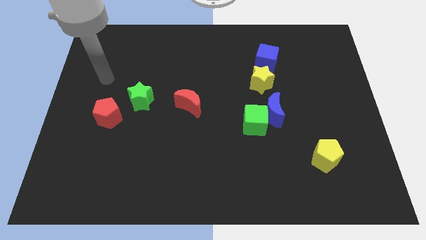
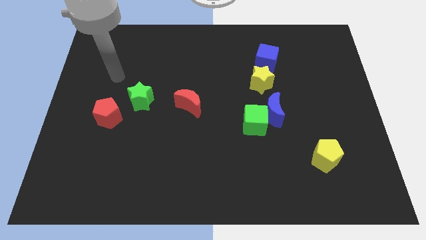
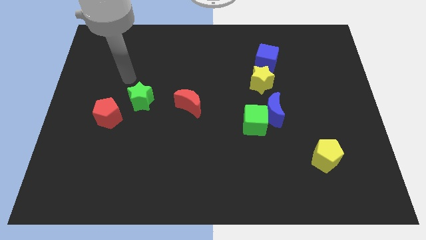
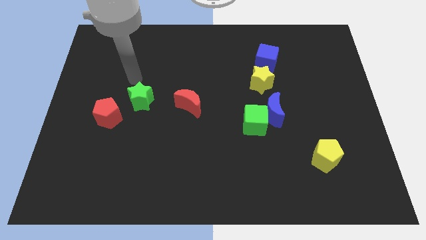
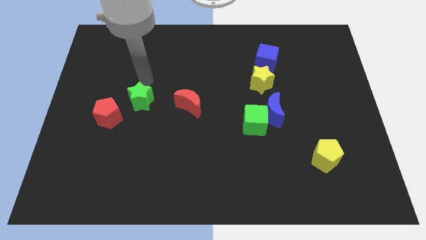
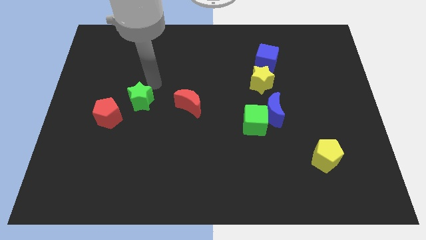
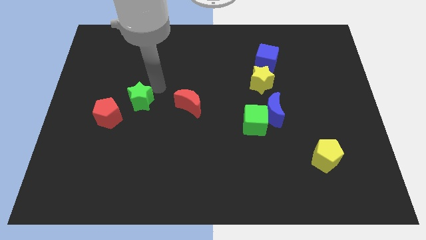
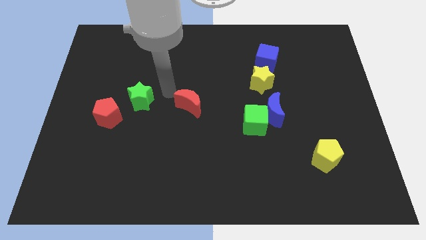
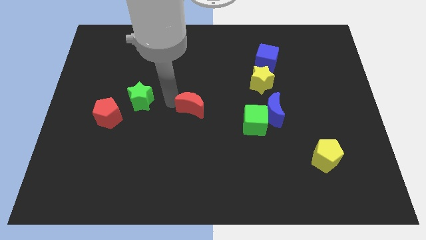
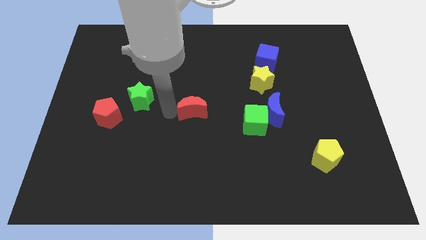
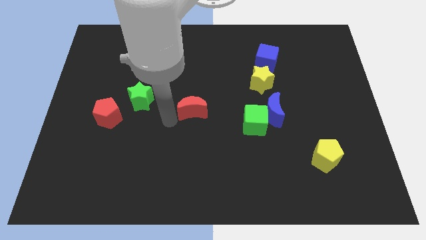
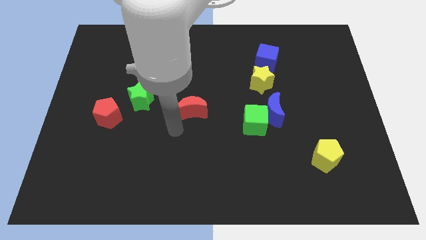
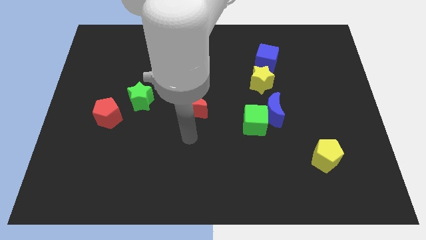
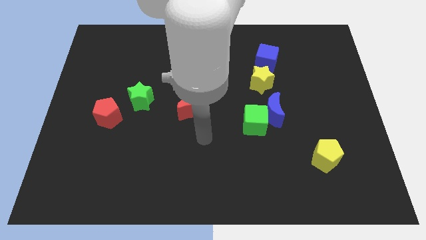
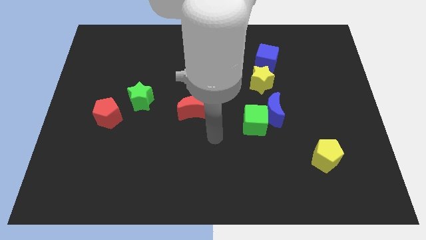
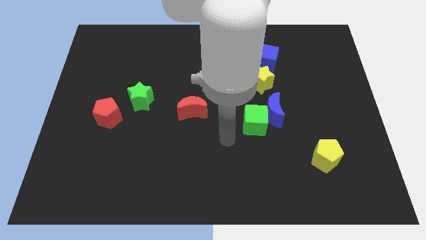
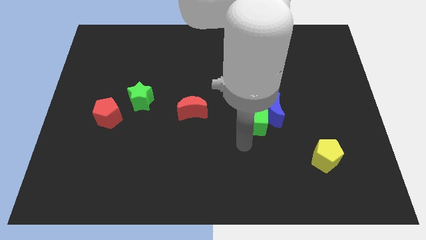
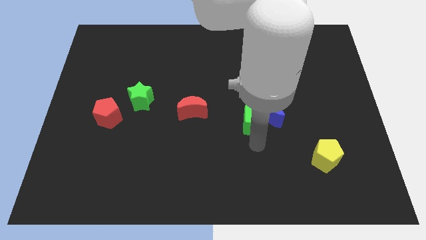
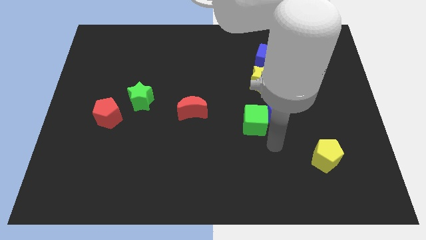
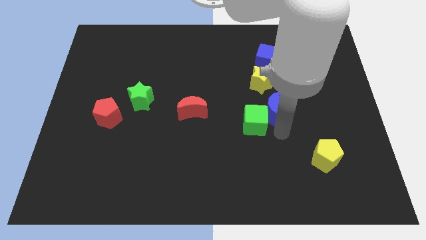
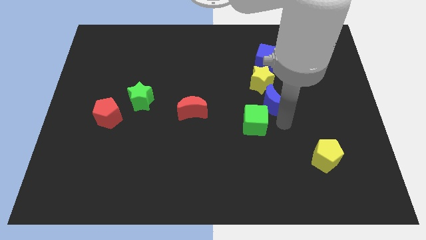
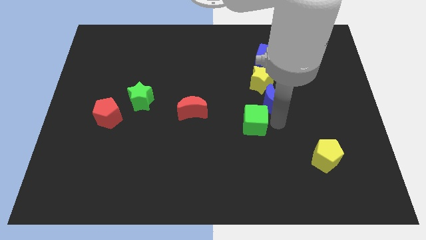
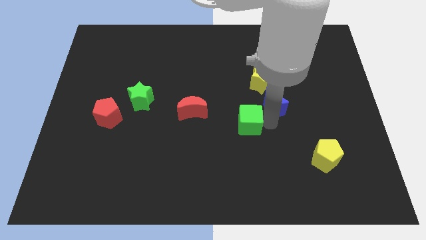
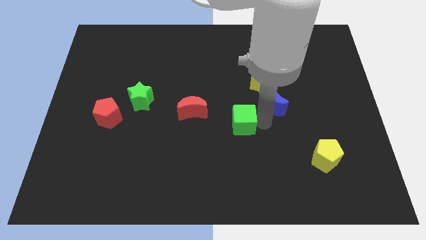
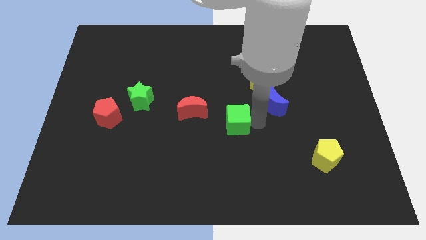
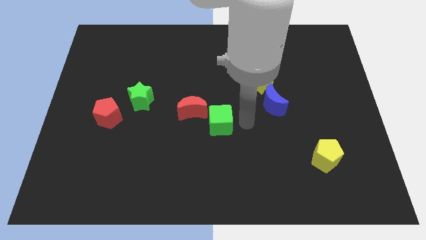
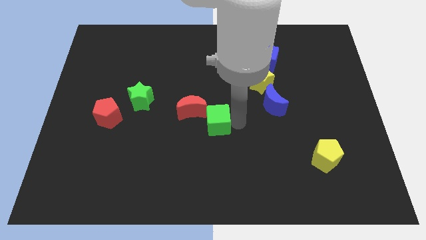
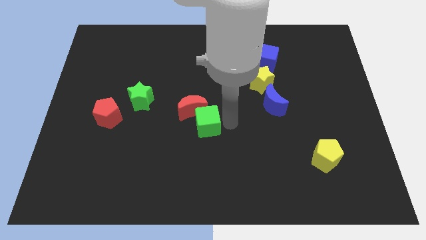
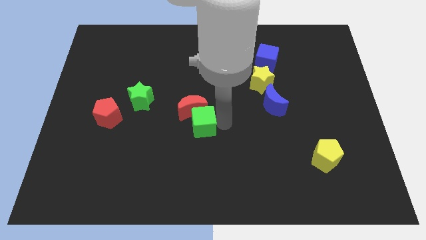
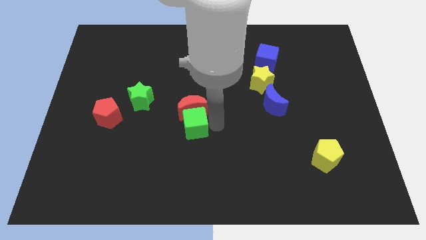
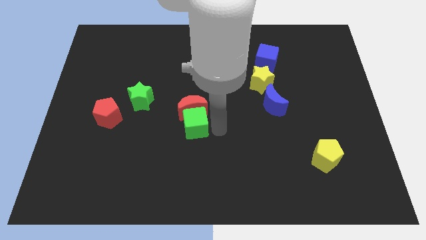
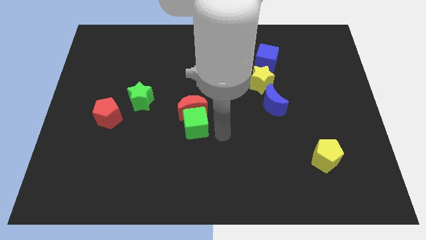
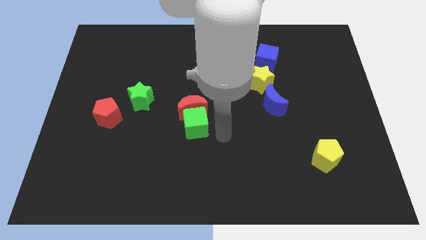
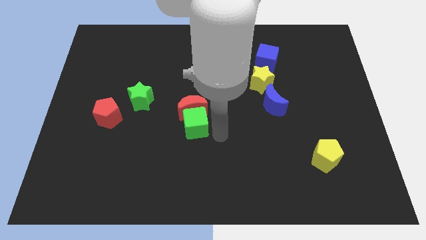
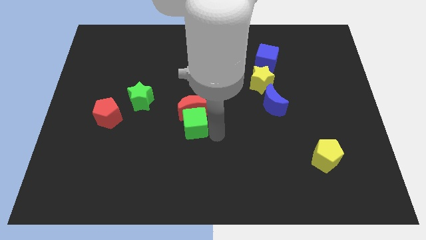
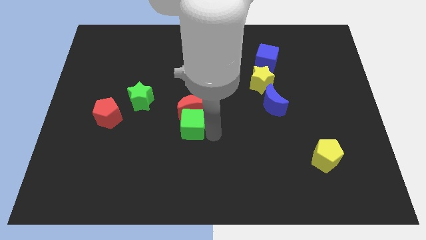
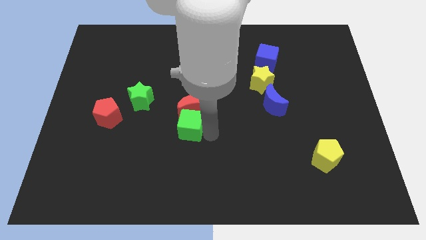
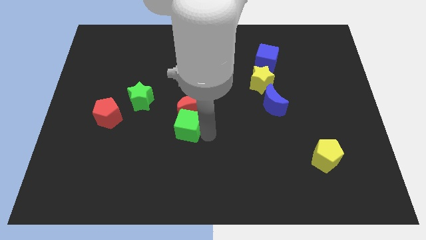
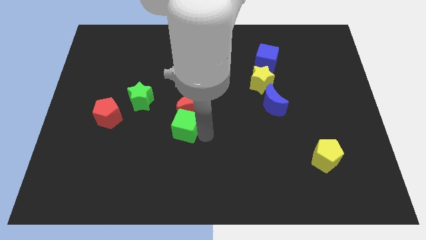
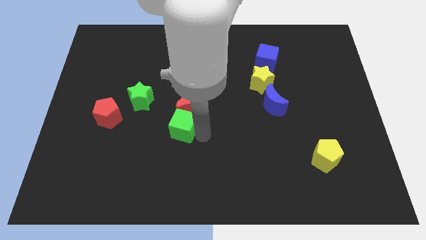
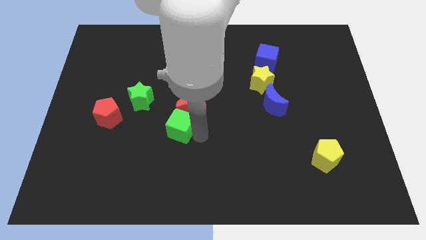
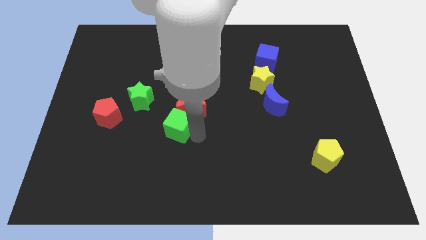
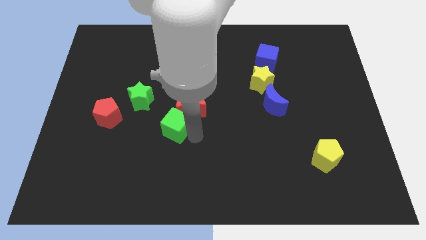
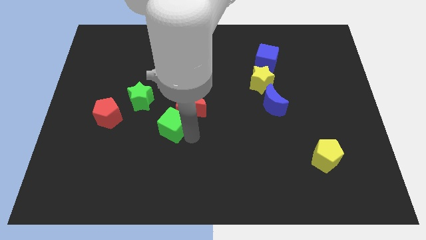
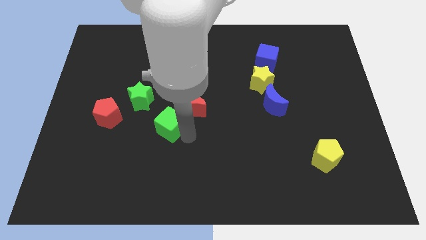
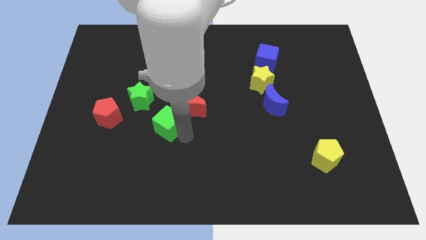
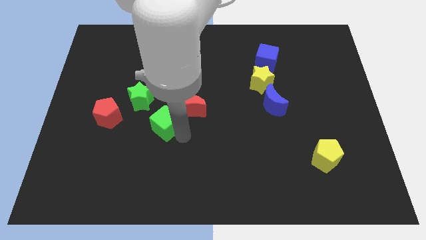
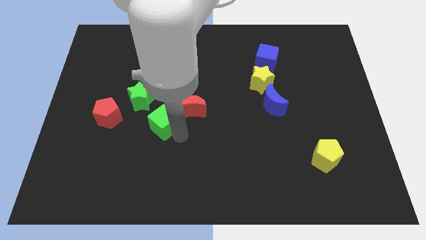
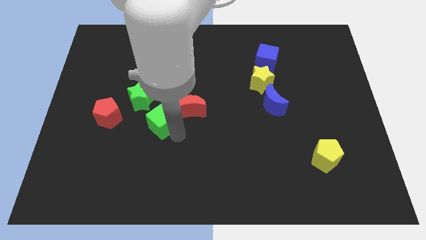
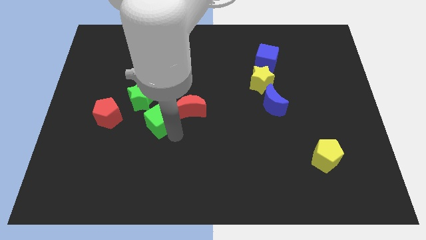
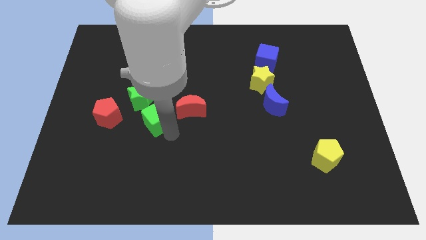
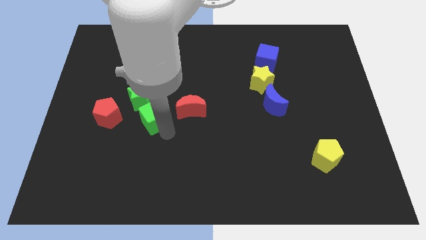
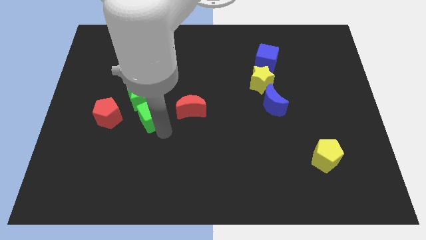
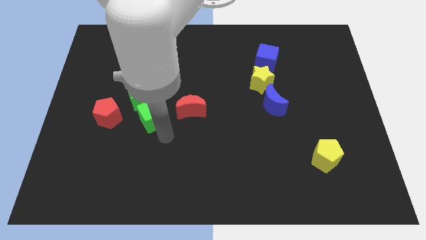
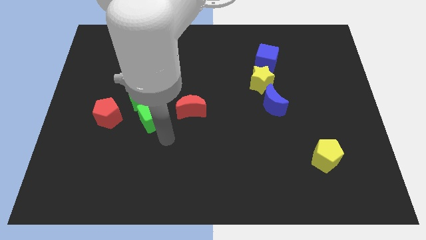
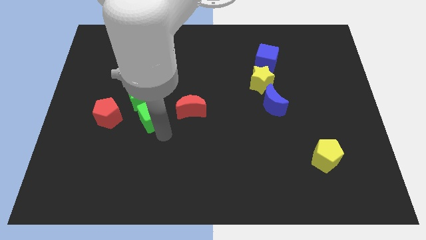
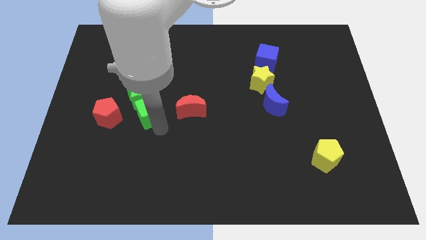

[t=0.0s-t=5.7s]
put the green cube towards the green star

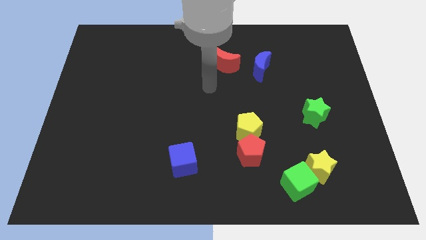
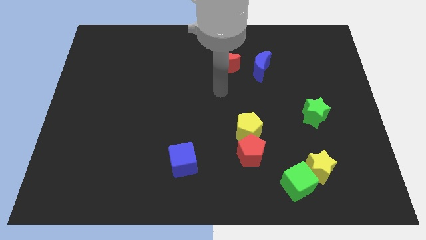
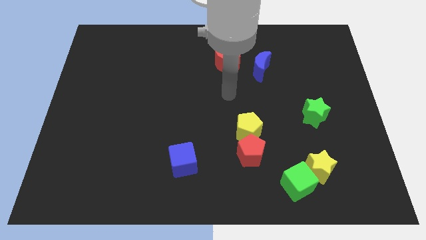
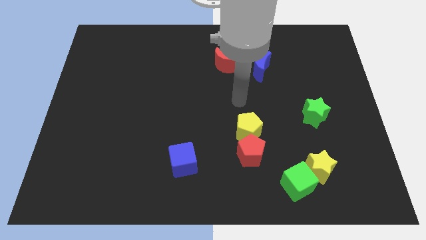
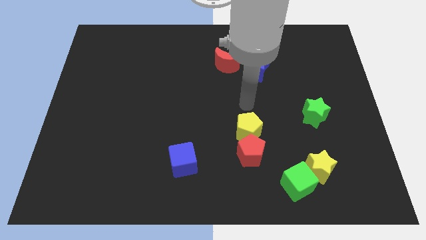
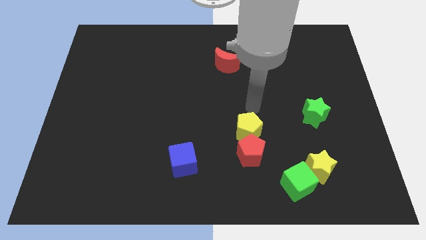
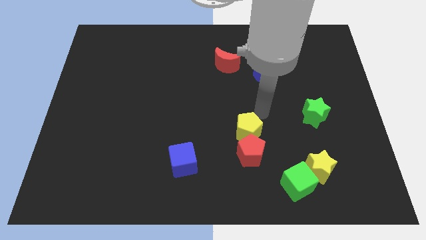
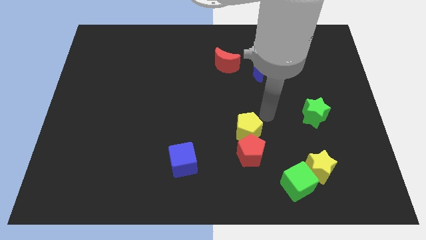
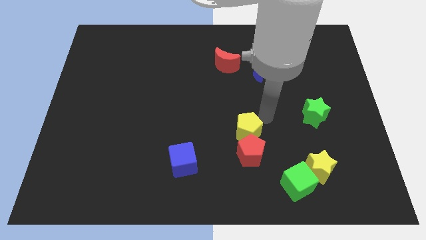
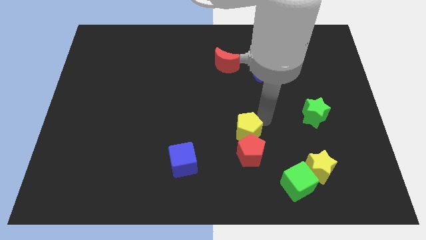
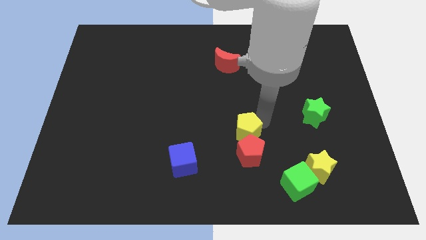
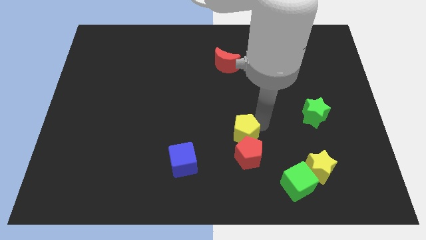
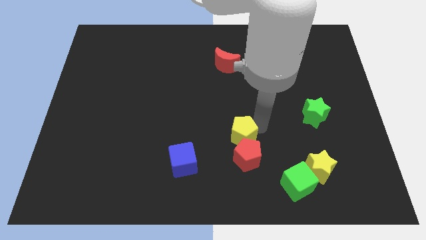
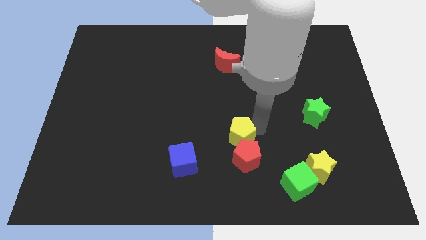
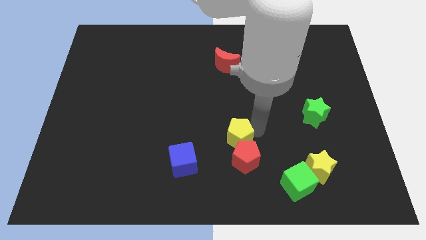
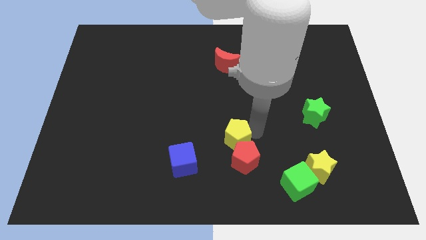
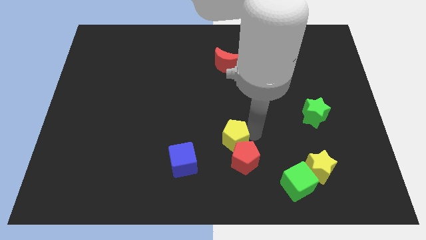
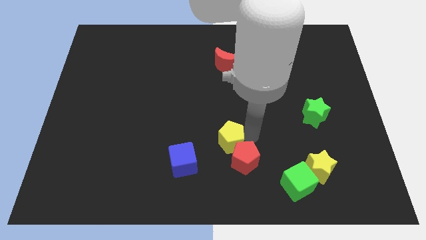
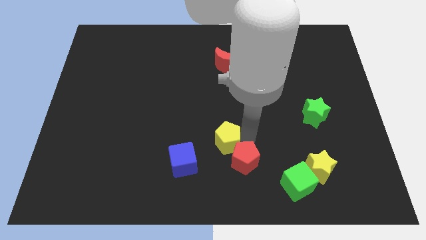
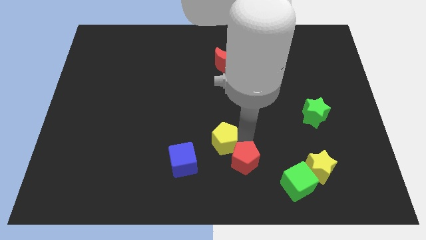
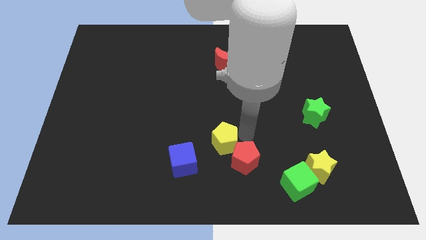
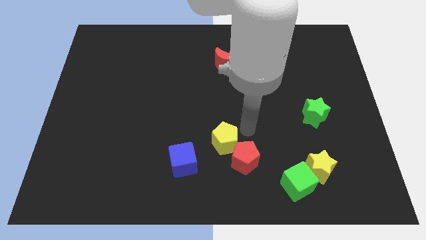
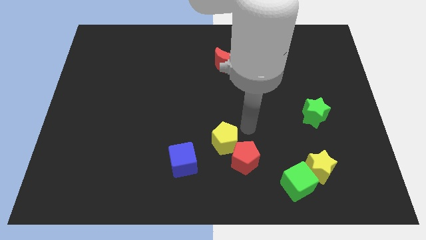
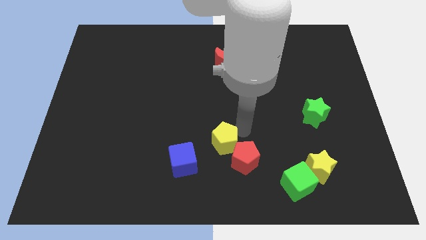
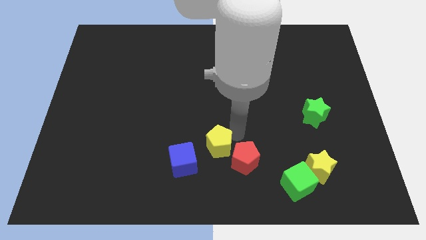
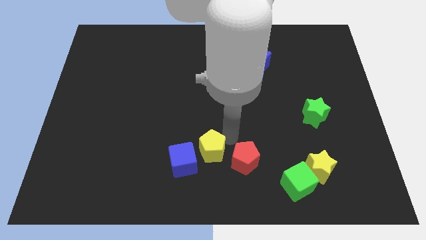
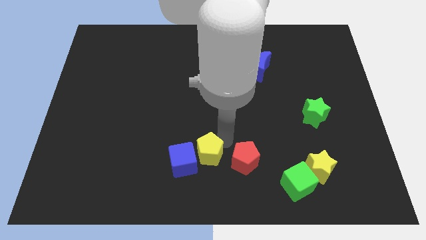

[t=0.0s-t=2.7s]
put the yellow pentagon to the blue cube
